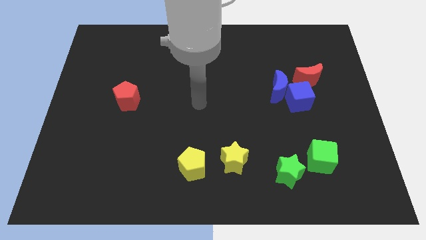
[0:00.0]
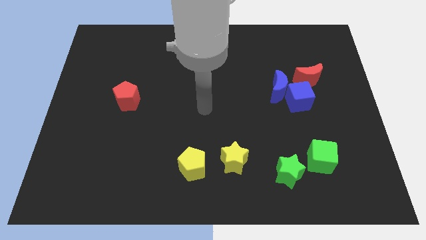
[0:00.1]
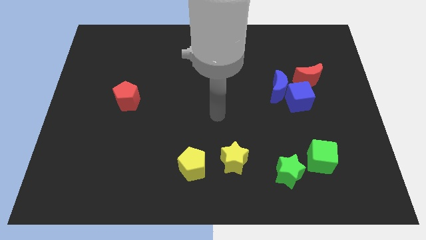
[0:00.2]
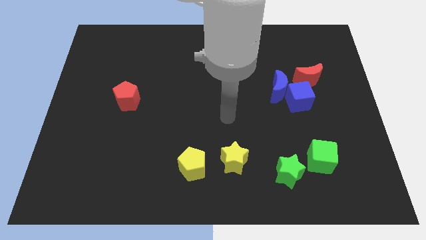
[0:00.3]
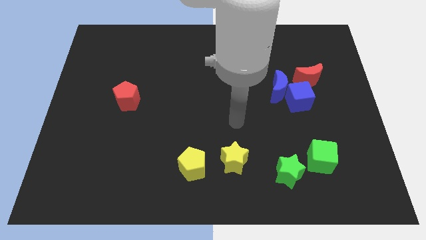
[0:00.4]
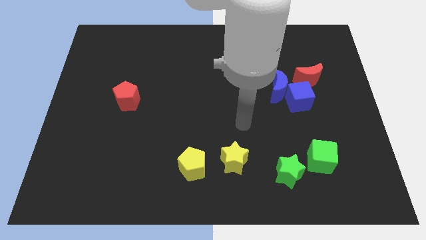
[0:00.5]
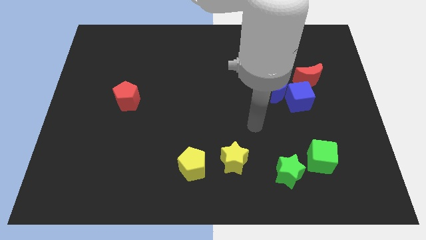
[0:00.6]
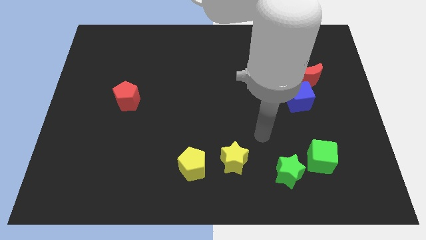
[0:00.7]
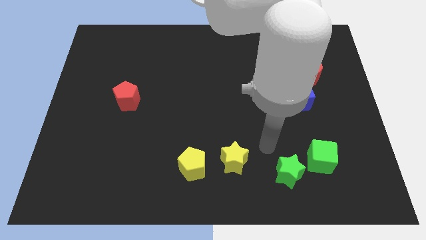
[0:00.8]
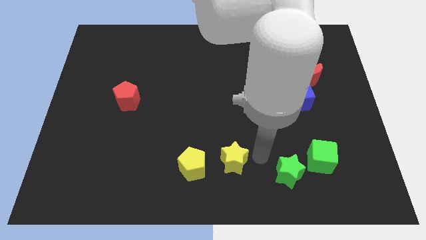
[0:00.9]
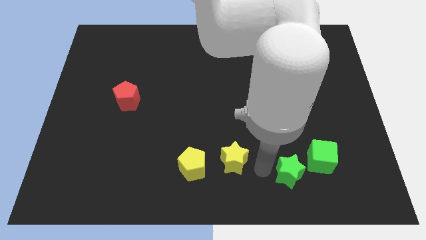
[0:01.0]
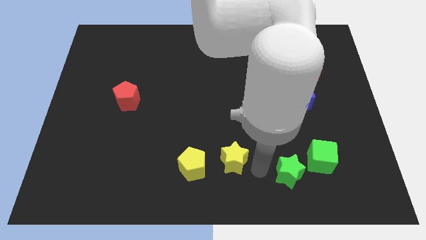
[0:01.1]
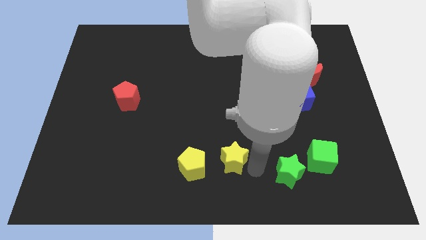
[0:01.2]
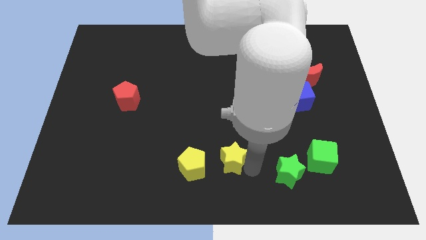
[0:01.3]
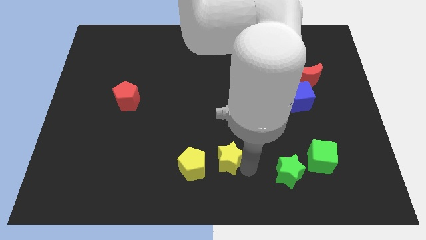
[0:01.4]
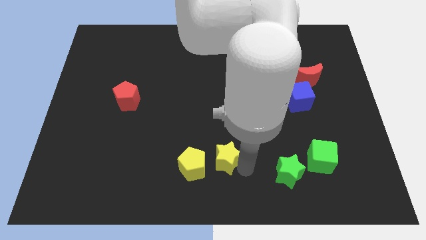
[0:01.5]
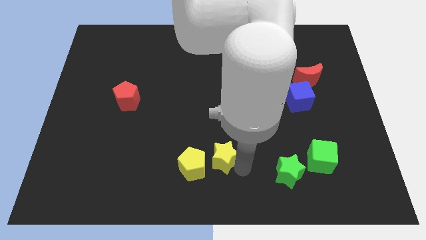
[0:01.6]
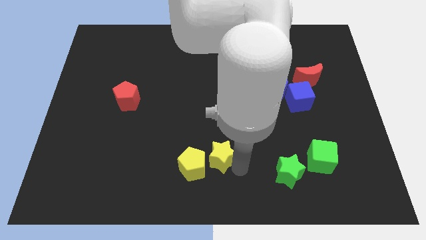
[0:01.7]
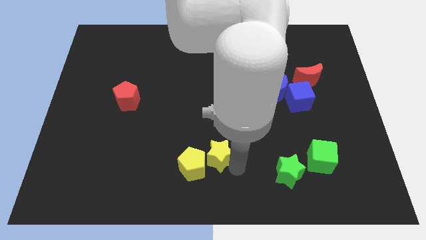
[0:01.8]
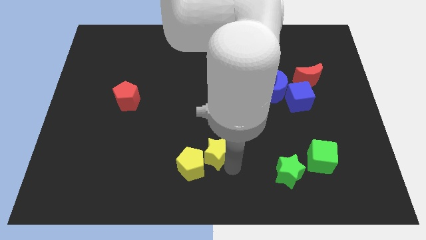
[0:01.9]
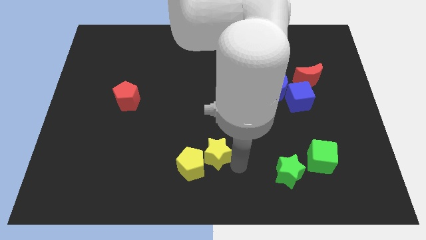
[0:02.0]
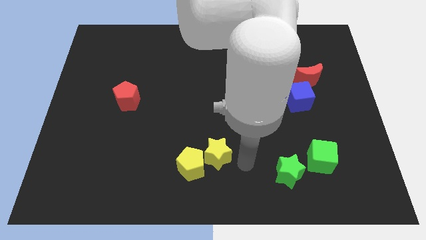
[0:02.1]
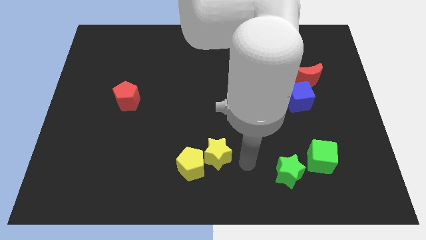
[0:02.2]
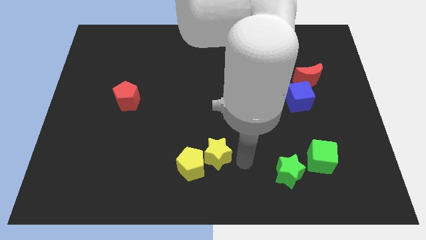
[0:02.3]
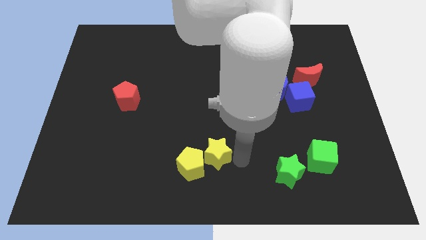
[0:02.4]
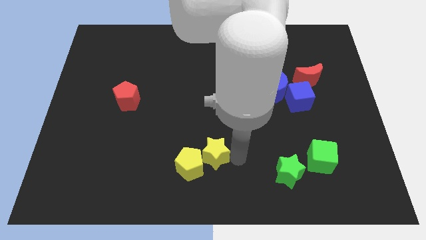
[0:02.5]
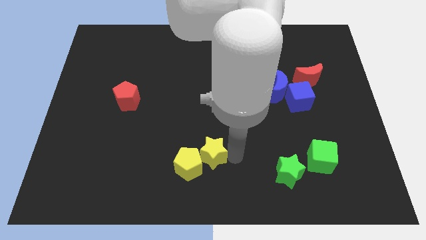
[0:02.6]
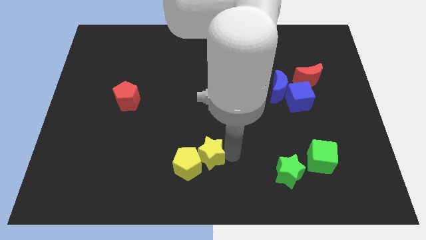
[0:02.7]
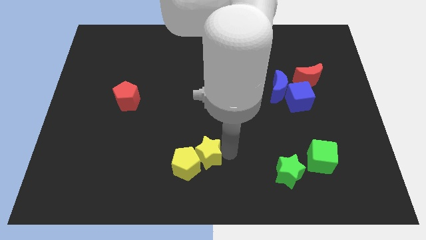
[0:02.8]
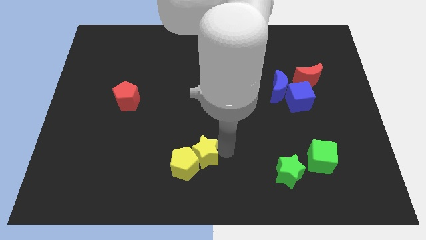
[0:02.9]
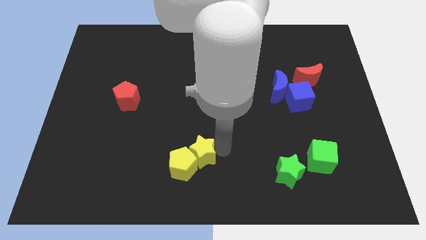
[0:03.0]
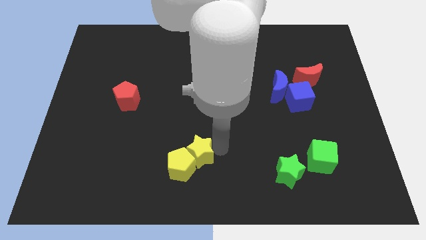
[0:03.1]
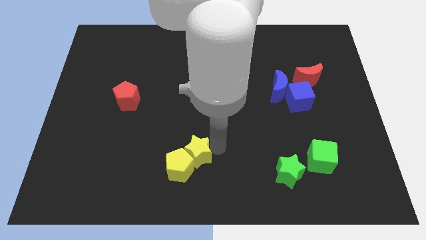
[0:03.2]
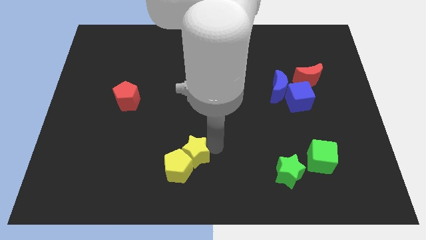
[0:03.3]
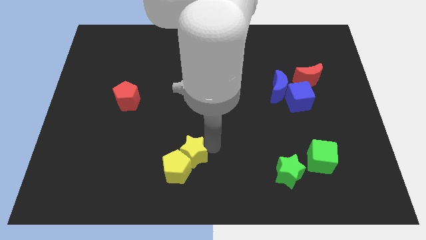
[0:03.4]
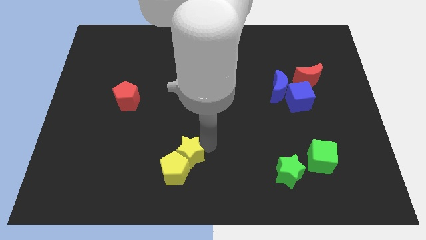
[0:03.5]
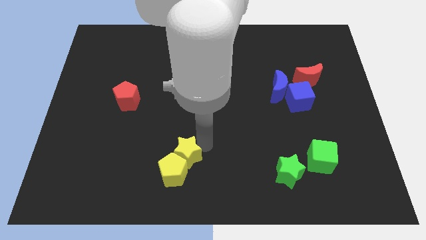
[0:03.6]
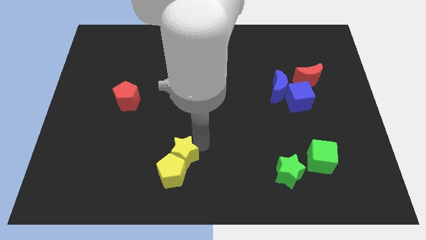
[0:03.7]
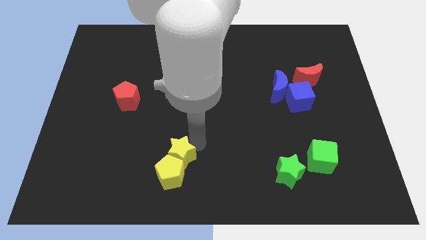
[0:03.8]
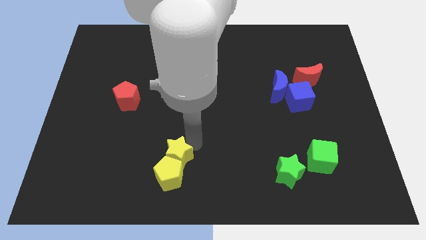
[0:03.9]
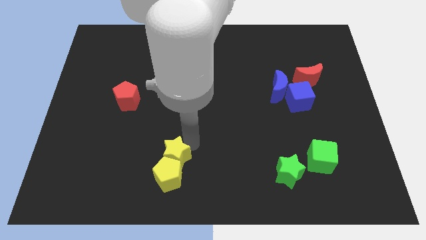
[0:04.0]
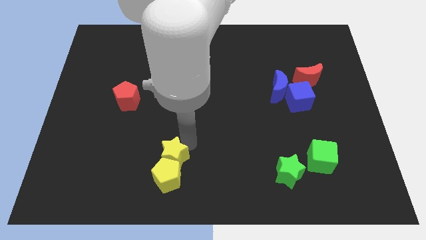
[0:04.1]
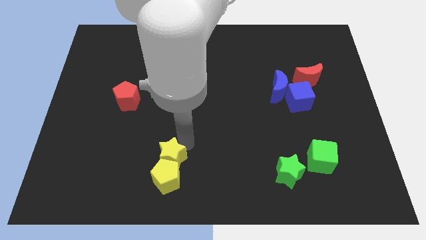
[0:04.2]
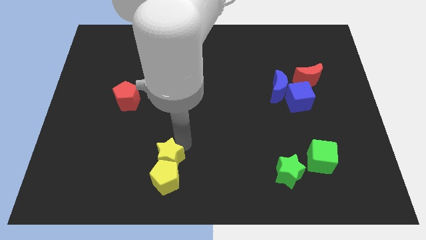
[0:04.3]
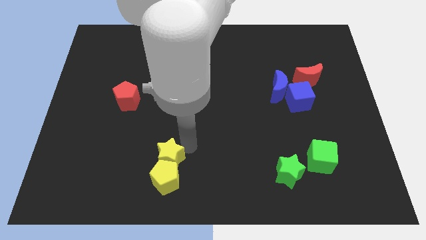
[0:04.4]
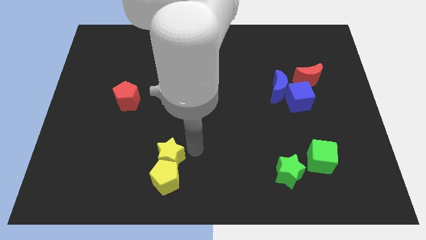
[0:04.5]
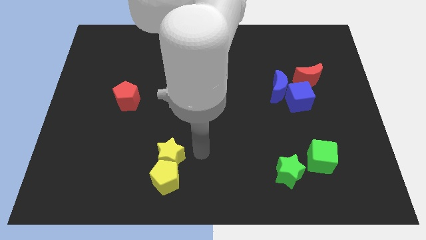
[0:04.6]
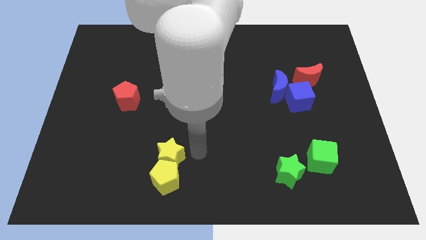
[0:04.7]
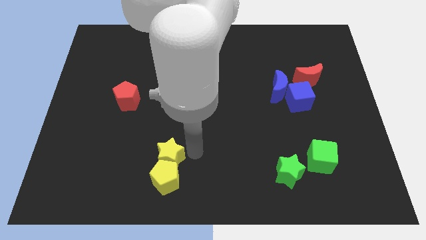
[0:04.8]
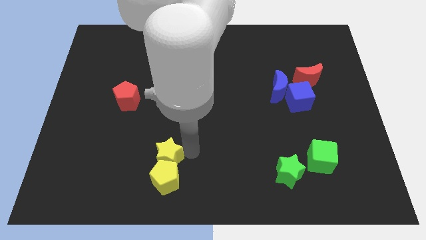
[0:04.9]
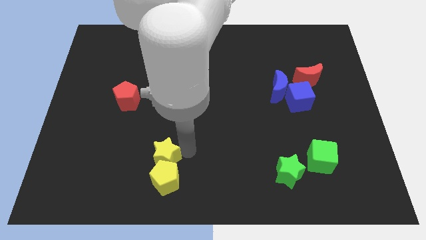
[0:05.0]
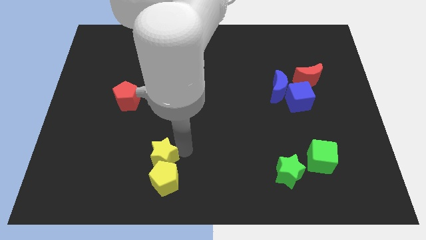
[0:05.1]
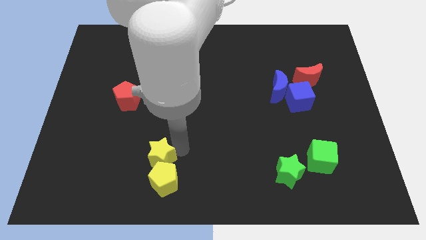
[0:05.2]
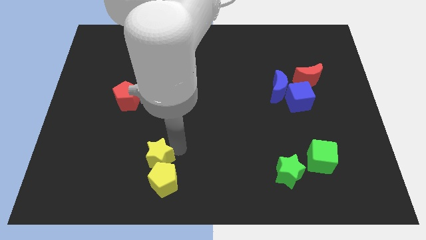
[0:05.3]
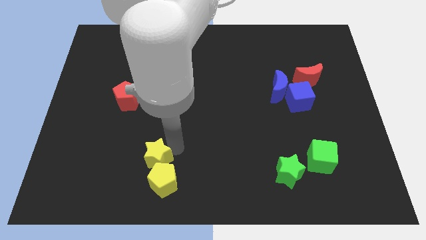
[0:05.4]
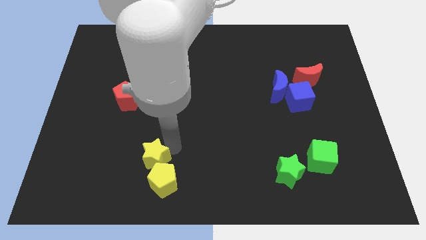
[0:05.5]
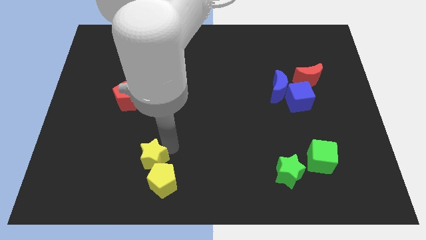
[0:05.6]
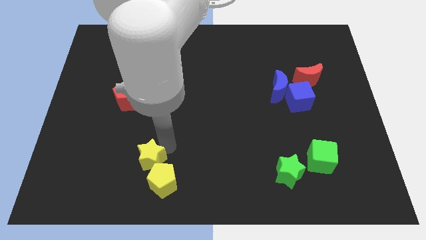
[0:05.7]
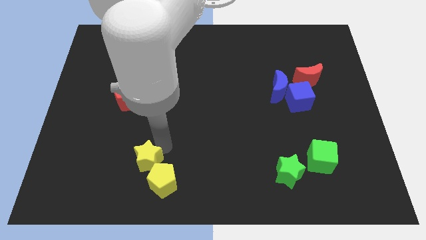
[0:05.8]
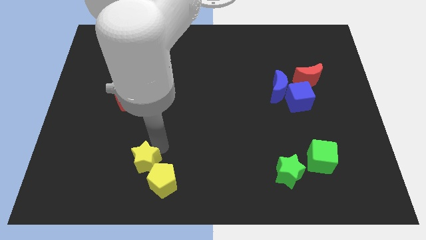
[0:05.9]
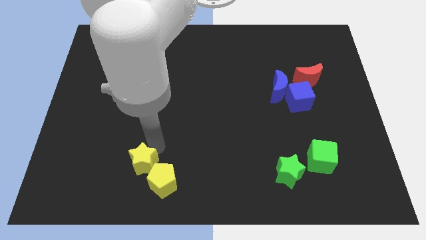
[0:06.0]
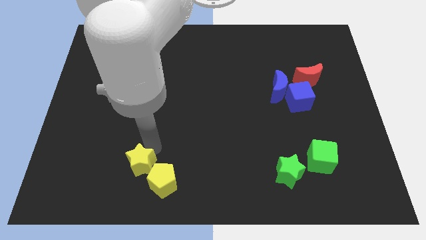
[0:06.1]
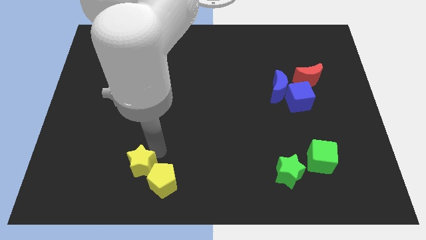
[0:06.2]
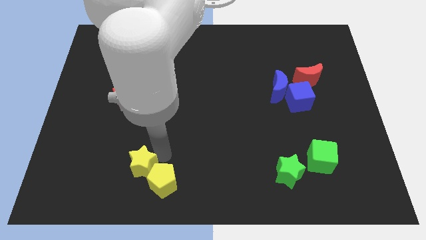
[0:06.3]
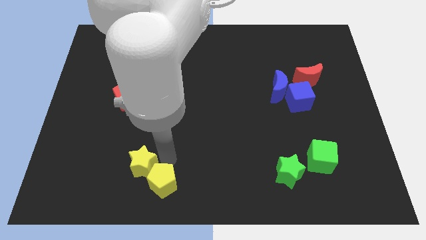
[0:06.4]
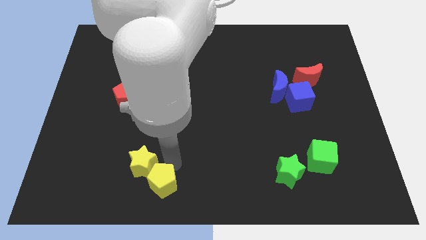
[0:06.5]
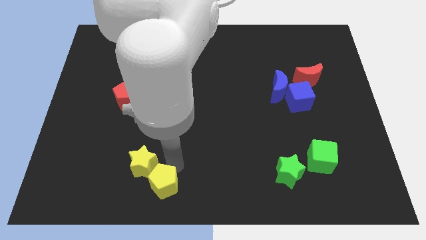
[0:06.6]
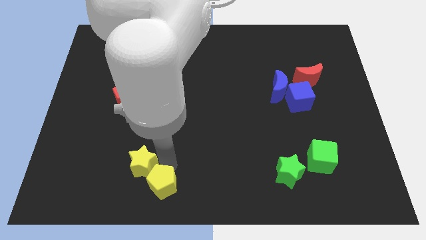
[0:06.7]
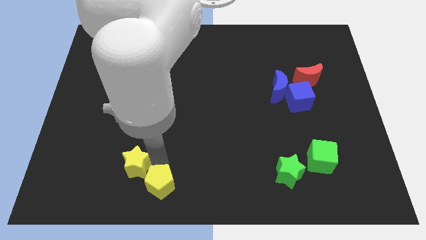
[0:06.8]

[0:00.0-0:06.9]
push the yellow star to the left

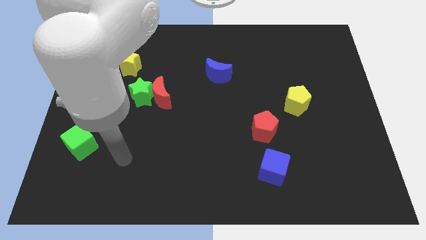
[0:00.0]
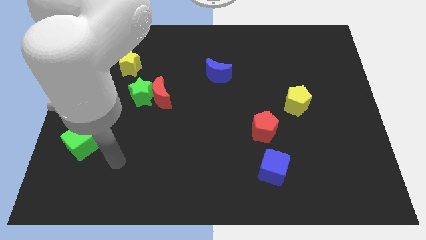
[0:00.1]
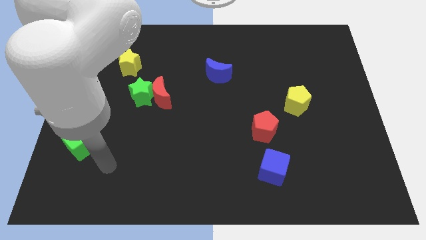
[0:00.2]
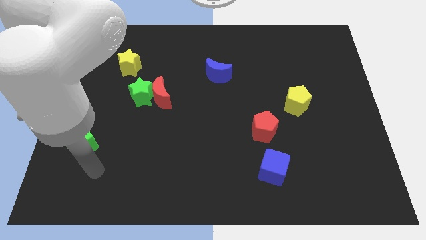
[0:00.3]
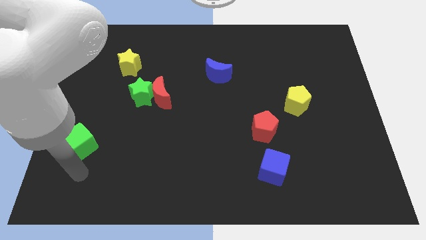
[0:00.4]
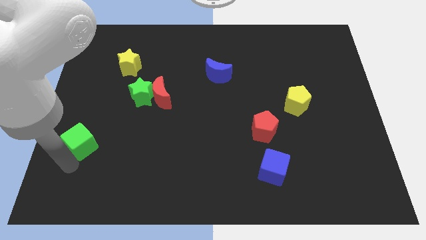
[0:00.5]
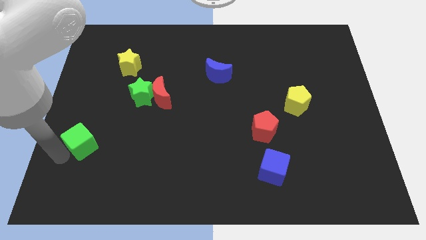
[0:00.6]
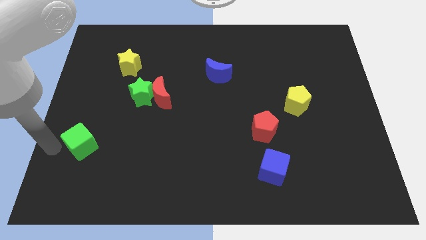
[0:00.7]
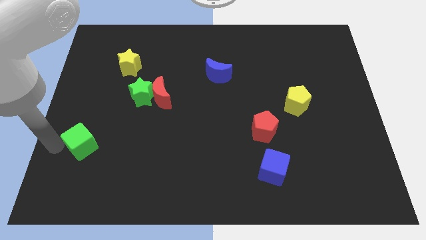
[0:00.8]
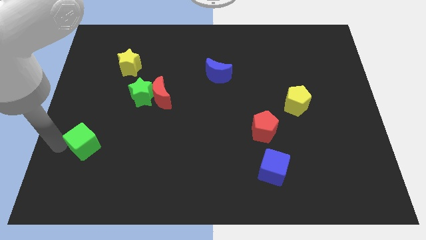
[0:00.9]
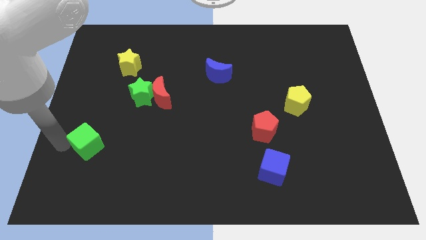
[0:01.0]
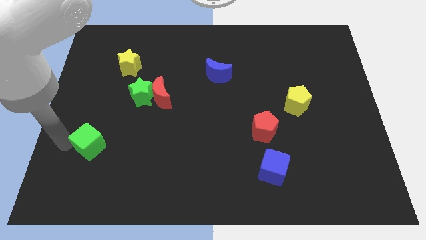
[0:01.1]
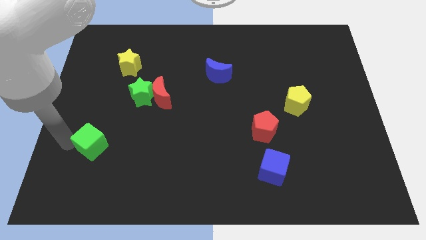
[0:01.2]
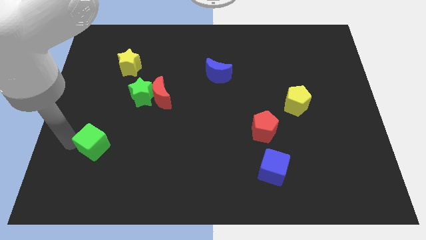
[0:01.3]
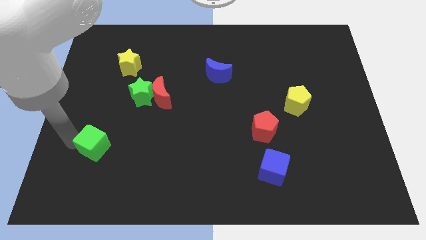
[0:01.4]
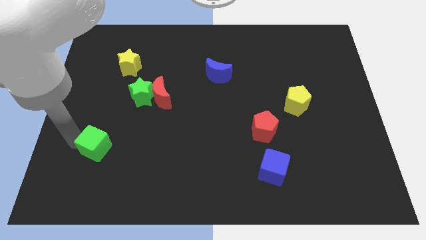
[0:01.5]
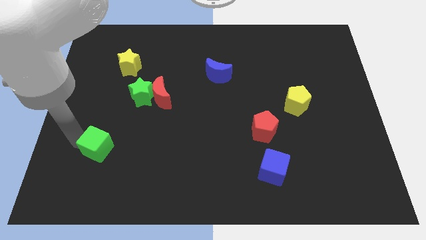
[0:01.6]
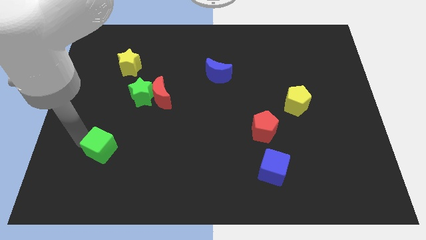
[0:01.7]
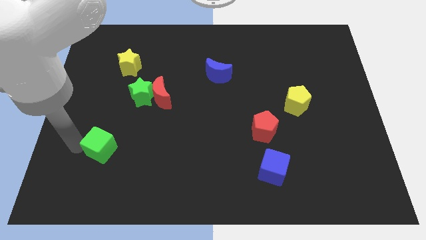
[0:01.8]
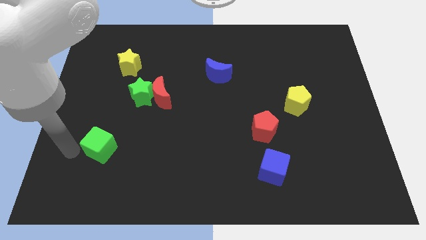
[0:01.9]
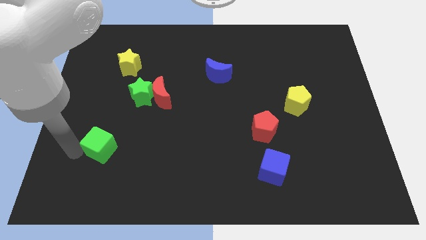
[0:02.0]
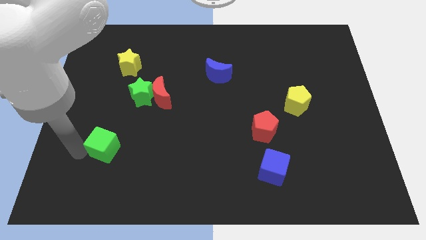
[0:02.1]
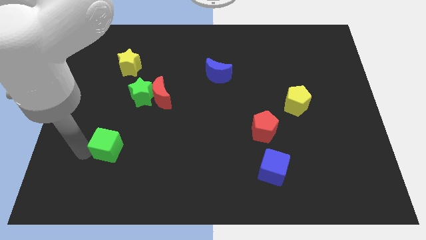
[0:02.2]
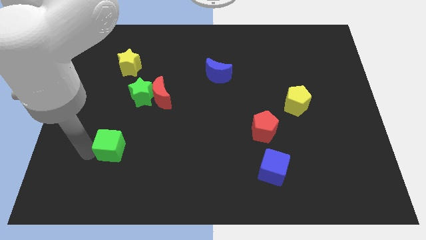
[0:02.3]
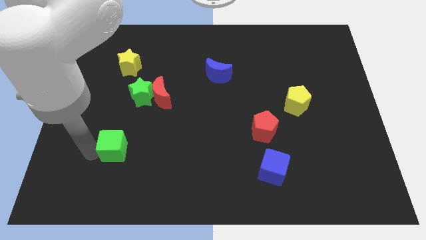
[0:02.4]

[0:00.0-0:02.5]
push the green cube to the right somewhat
